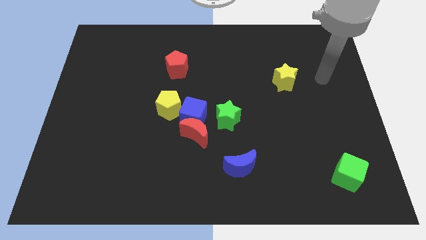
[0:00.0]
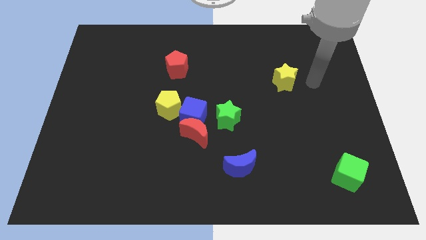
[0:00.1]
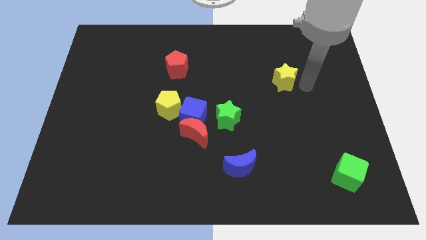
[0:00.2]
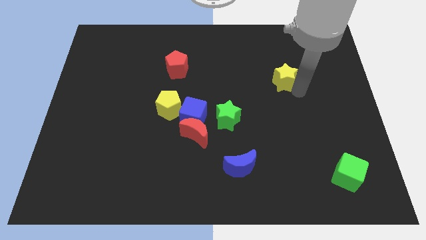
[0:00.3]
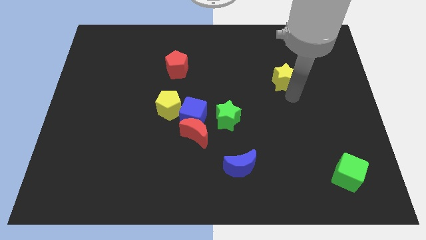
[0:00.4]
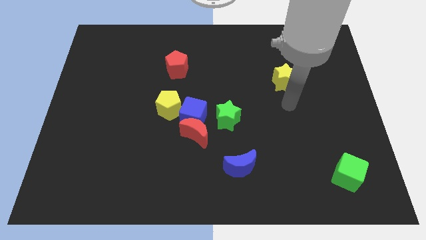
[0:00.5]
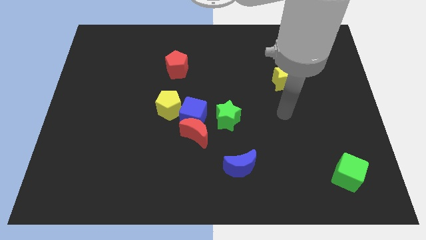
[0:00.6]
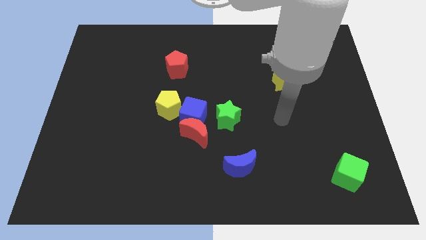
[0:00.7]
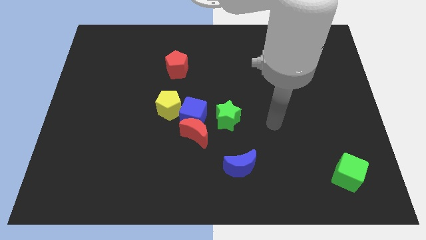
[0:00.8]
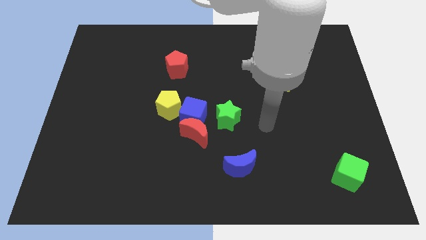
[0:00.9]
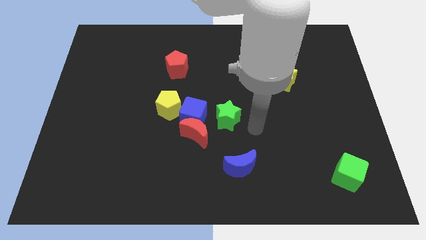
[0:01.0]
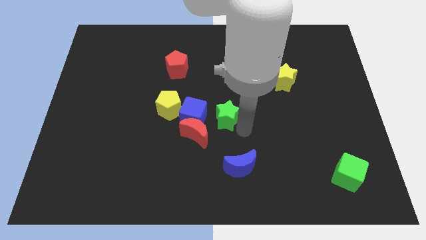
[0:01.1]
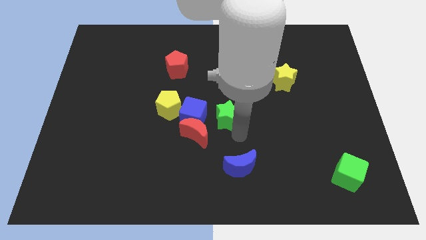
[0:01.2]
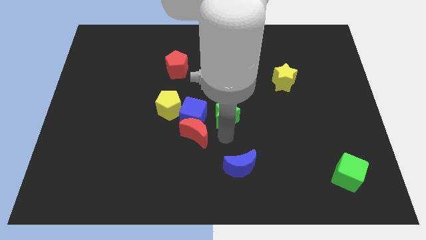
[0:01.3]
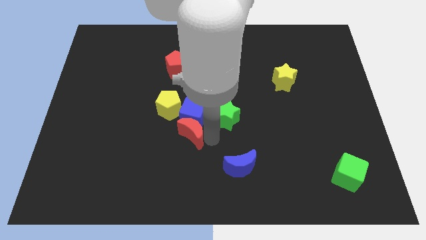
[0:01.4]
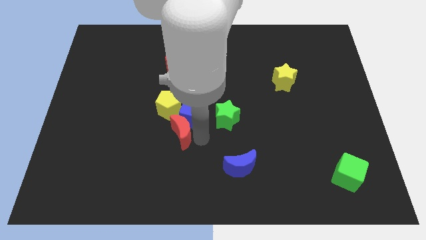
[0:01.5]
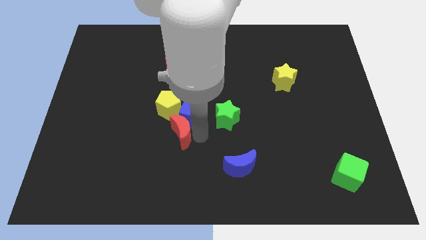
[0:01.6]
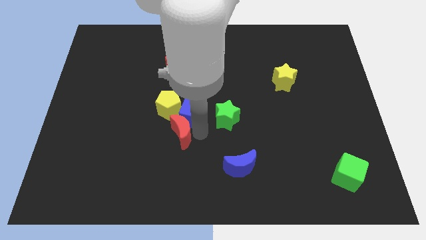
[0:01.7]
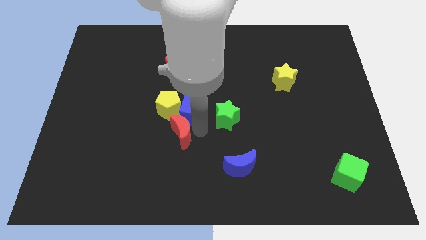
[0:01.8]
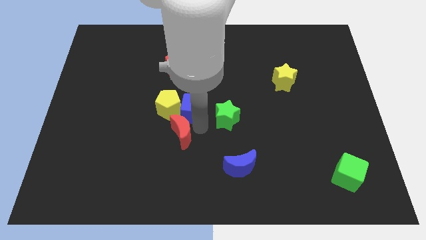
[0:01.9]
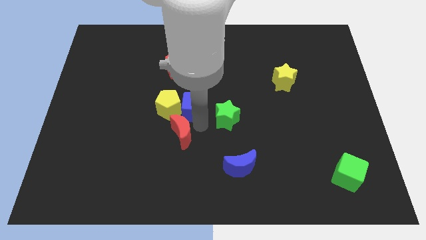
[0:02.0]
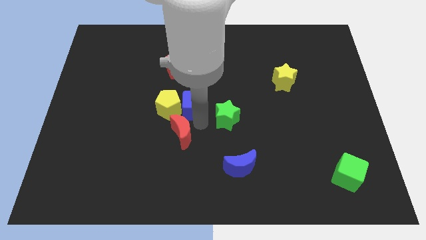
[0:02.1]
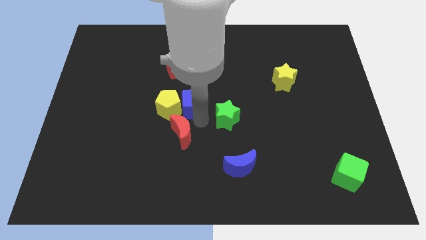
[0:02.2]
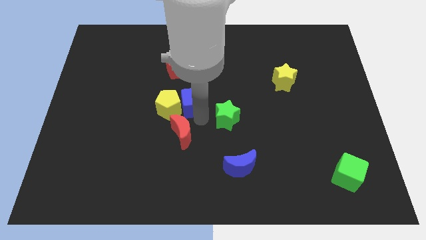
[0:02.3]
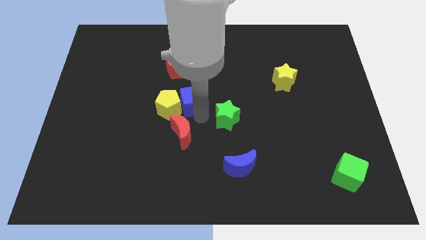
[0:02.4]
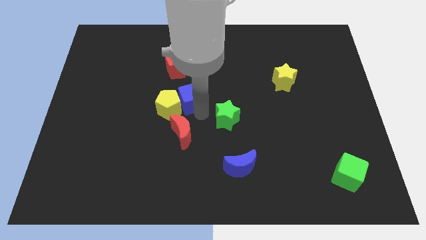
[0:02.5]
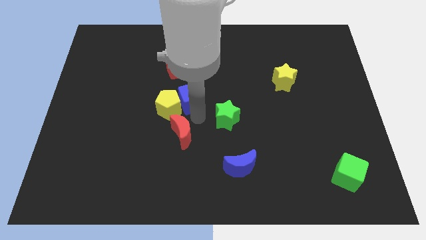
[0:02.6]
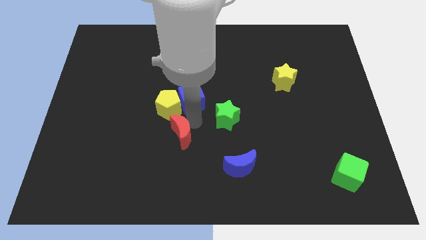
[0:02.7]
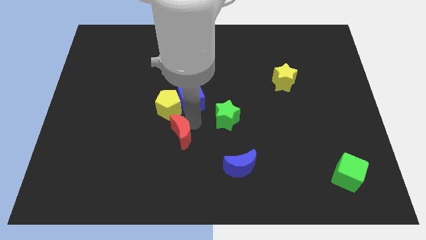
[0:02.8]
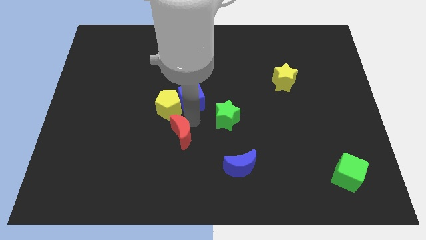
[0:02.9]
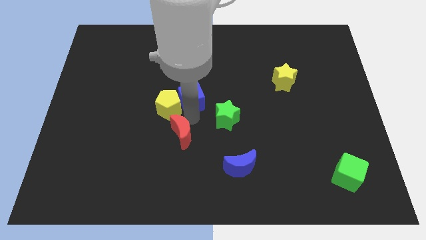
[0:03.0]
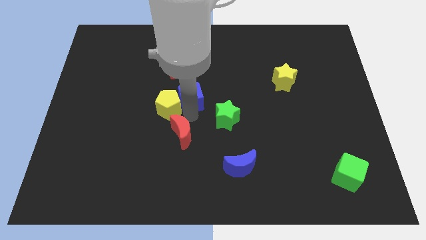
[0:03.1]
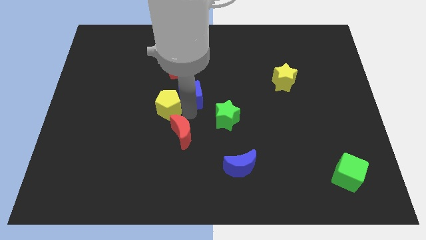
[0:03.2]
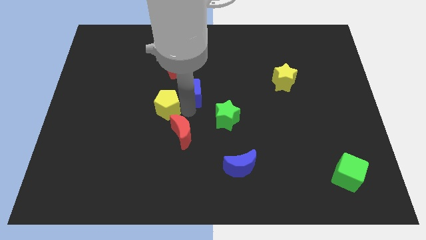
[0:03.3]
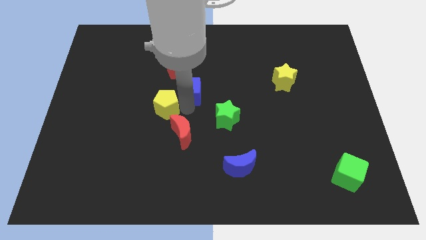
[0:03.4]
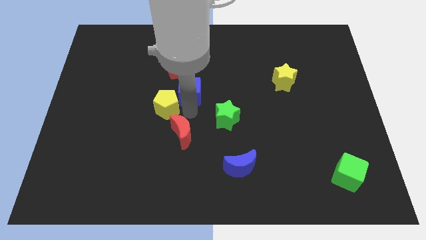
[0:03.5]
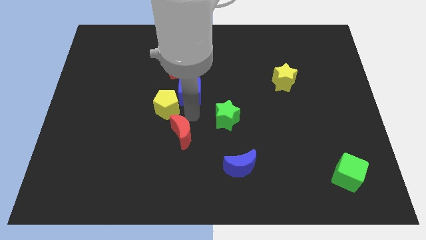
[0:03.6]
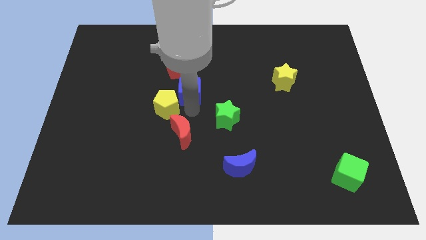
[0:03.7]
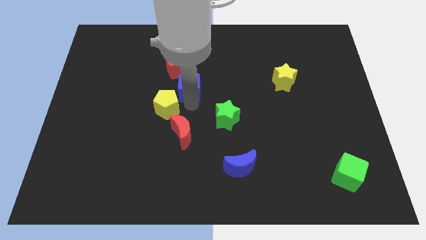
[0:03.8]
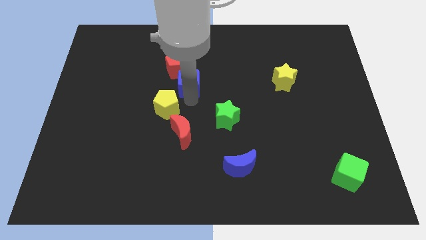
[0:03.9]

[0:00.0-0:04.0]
move the blue cube away from the clump

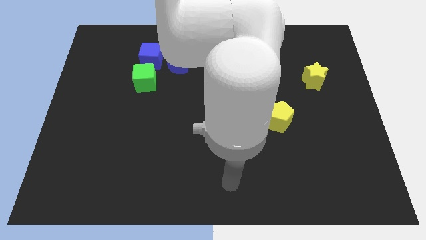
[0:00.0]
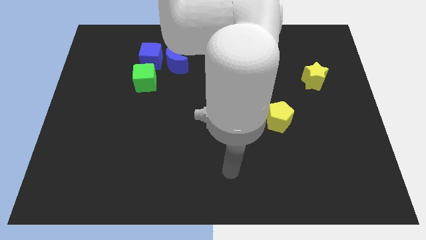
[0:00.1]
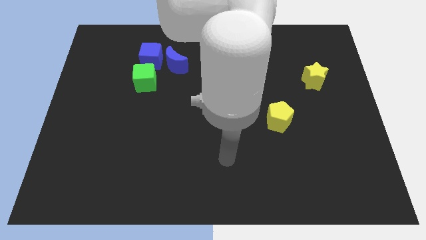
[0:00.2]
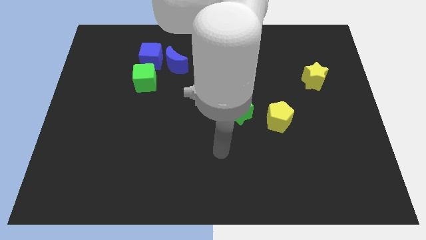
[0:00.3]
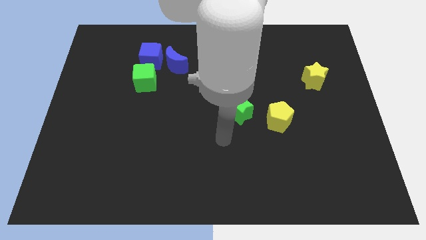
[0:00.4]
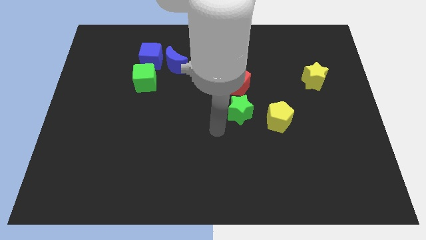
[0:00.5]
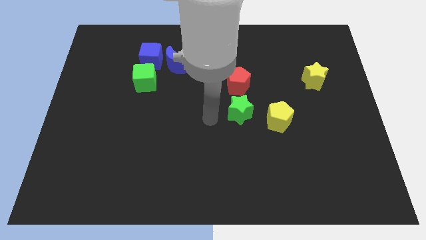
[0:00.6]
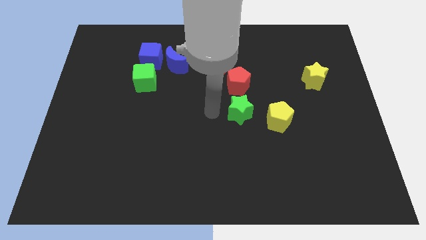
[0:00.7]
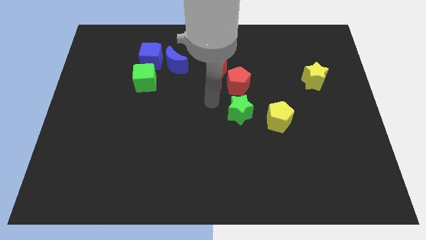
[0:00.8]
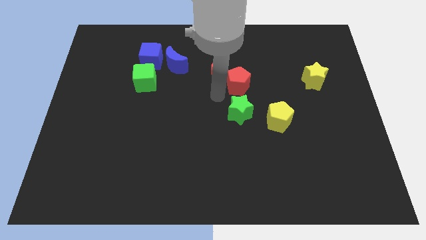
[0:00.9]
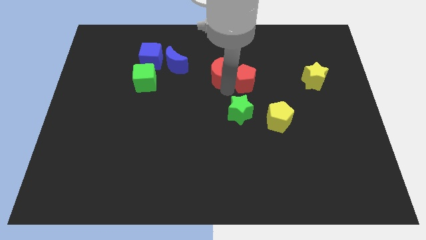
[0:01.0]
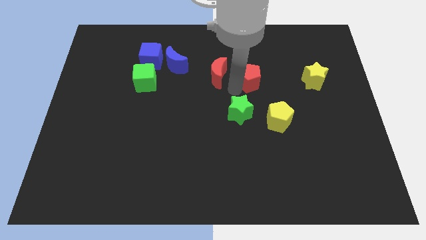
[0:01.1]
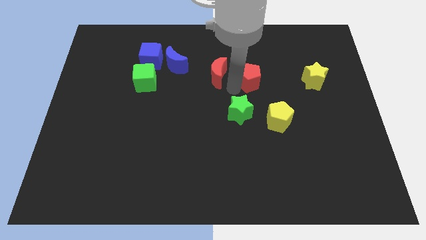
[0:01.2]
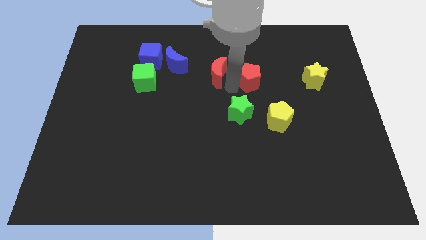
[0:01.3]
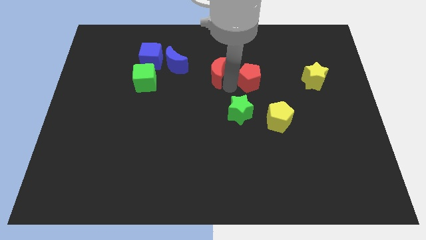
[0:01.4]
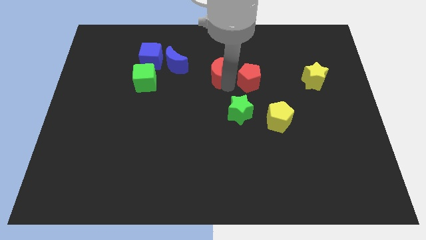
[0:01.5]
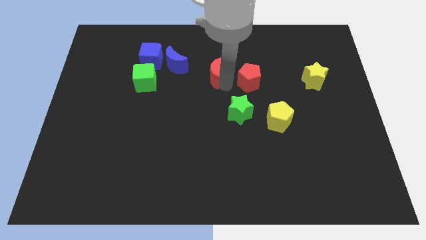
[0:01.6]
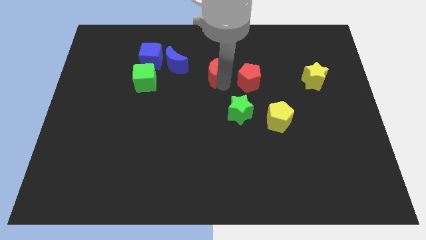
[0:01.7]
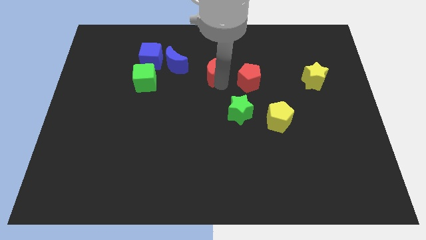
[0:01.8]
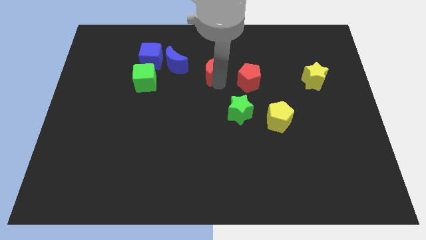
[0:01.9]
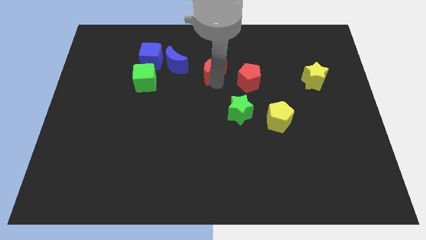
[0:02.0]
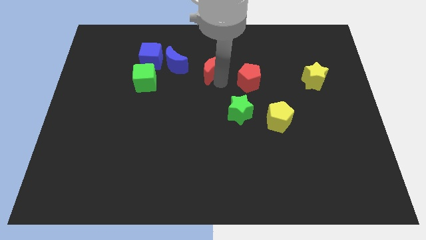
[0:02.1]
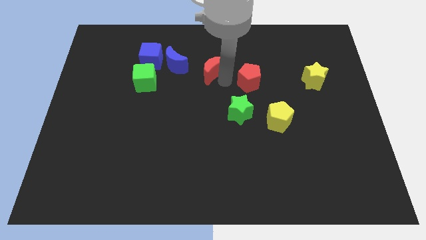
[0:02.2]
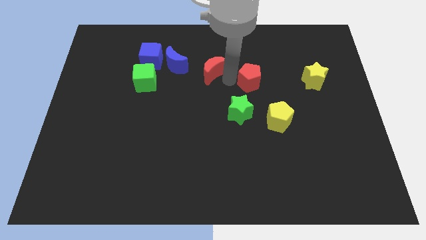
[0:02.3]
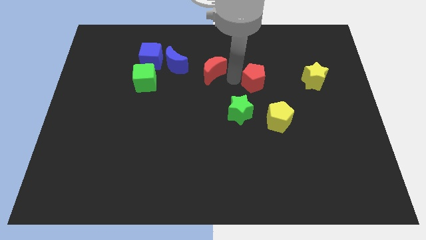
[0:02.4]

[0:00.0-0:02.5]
separate the red moon from the red pentagon

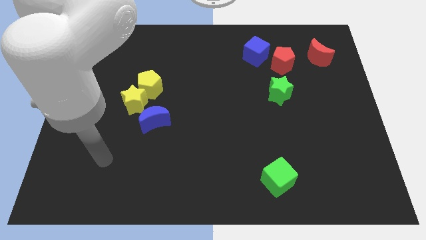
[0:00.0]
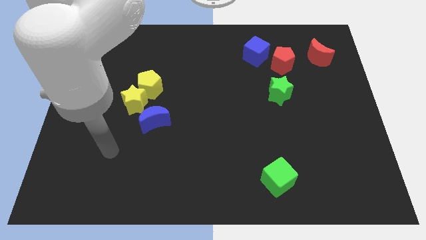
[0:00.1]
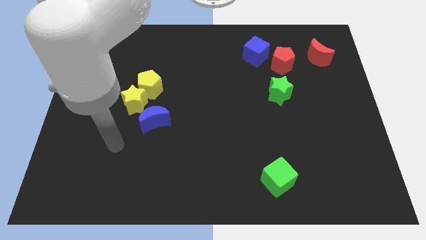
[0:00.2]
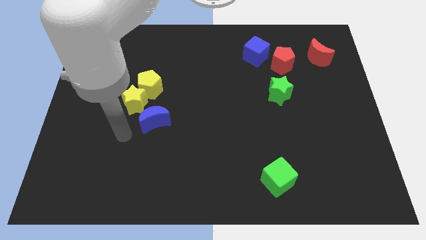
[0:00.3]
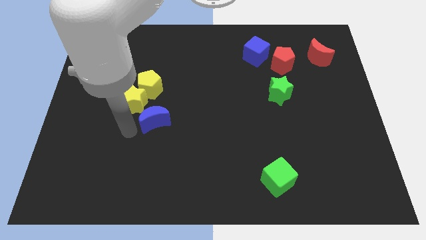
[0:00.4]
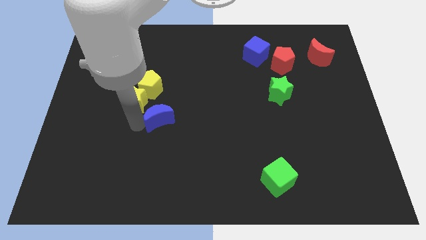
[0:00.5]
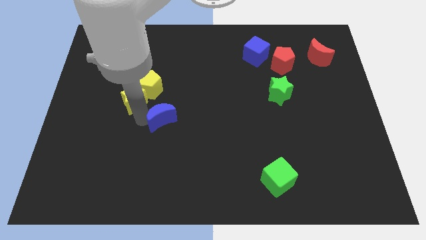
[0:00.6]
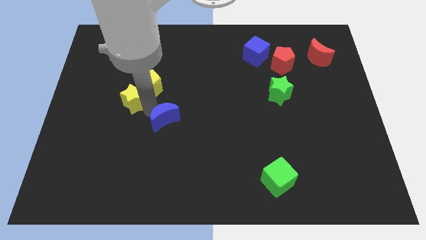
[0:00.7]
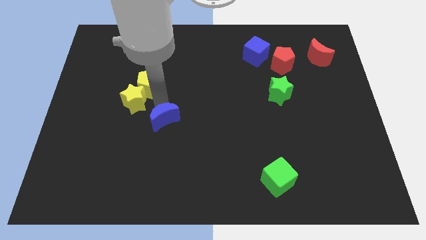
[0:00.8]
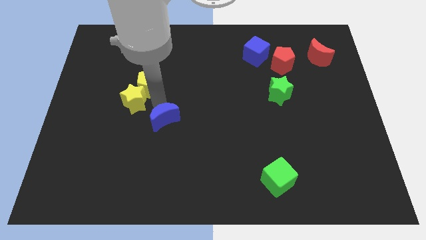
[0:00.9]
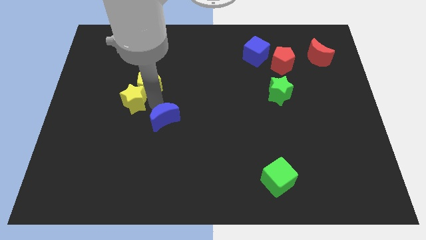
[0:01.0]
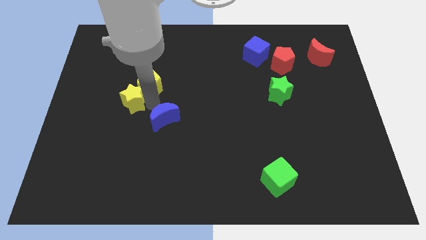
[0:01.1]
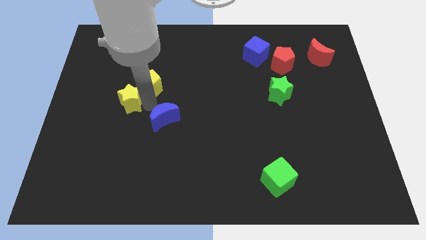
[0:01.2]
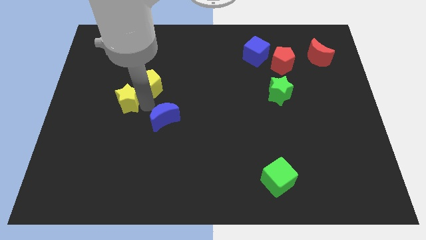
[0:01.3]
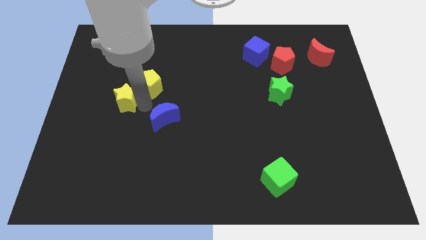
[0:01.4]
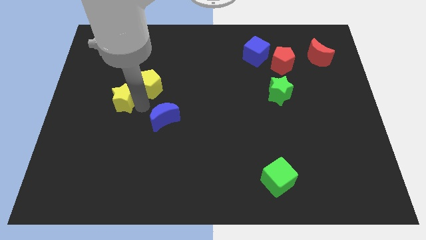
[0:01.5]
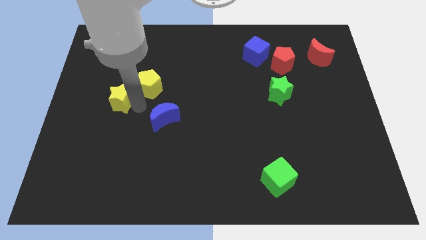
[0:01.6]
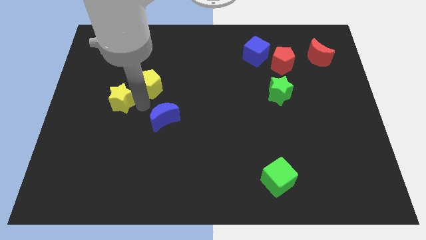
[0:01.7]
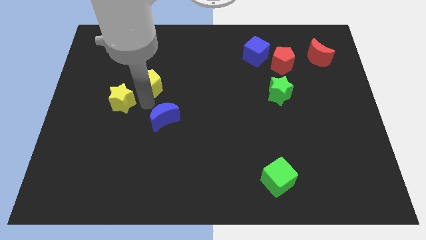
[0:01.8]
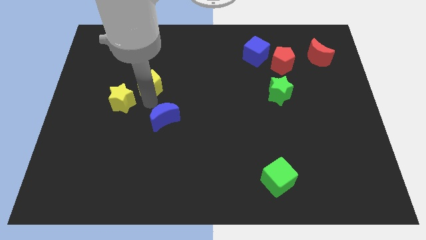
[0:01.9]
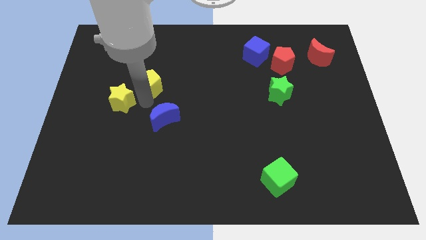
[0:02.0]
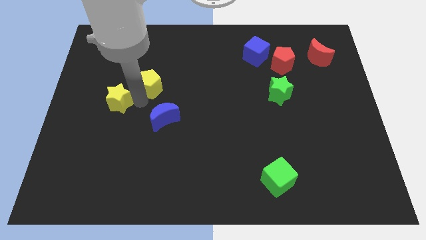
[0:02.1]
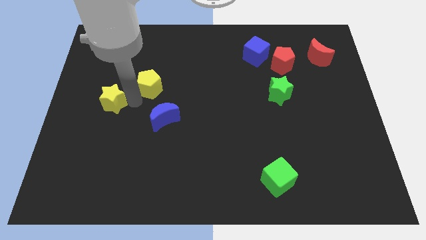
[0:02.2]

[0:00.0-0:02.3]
separate the yellow star from the yellow pentagon and blue moon

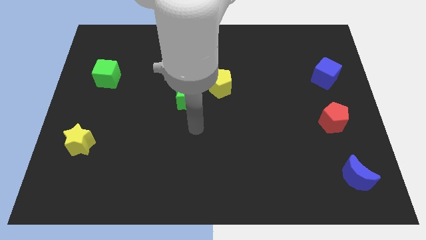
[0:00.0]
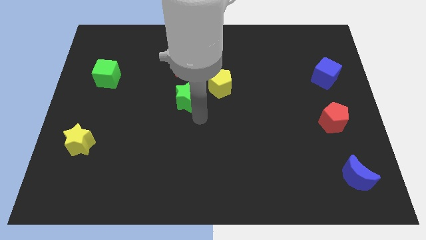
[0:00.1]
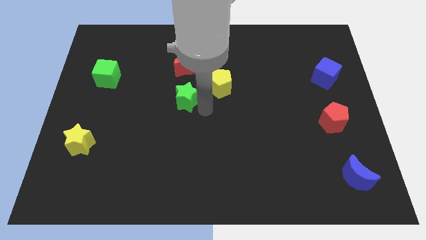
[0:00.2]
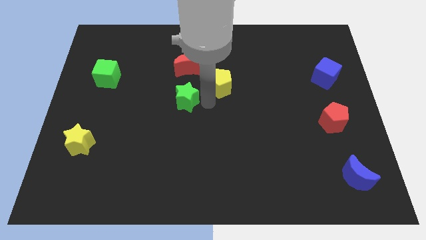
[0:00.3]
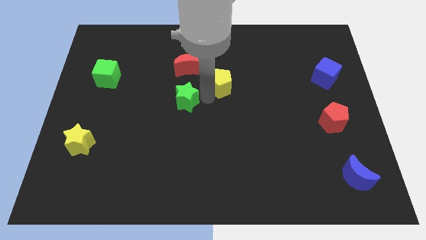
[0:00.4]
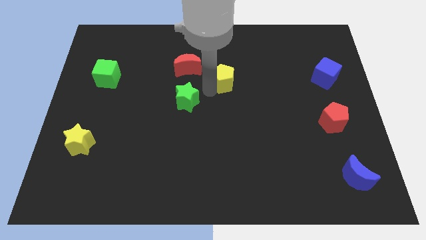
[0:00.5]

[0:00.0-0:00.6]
move the green star away from the yellow pentagon
